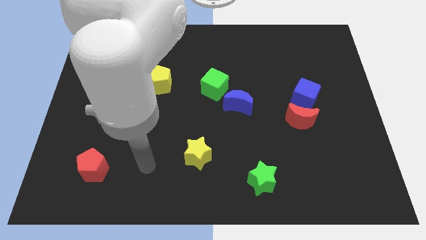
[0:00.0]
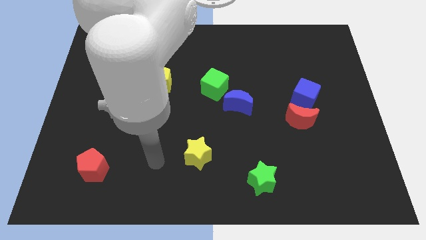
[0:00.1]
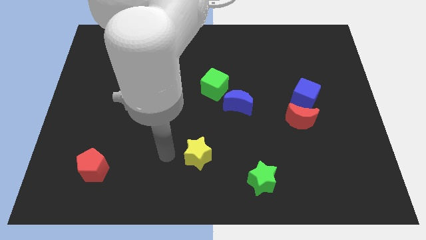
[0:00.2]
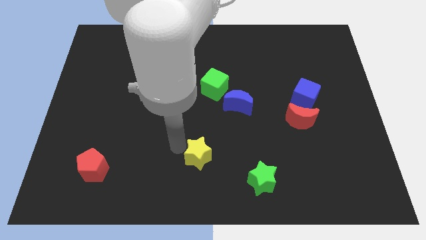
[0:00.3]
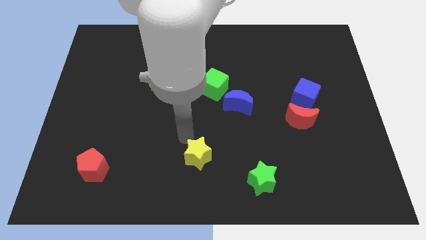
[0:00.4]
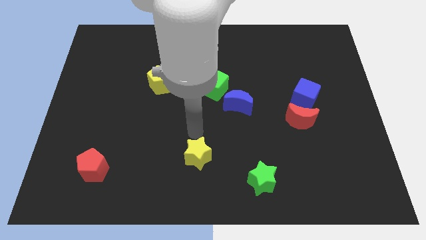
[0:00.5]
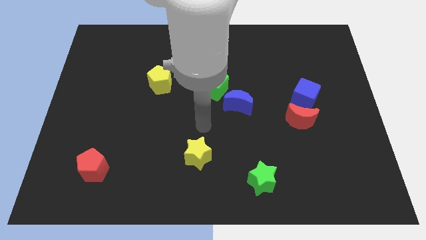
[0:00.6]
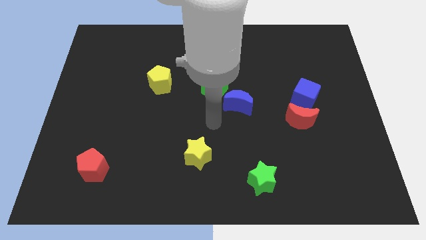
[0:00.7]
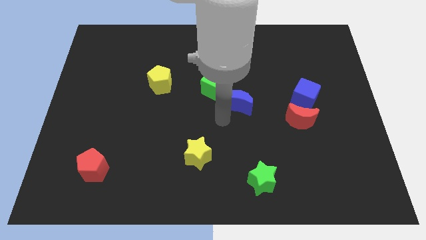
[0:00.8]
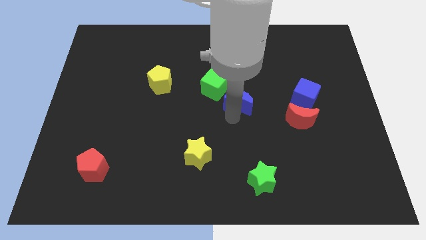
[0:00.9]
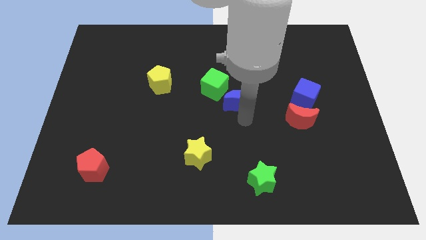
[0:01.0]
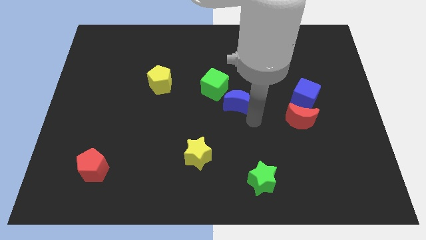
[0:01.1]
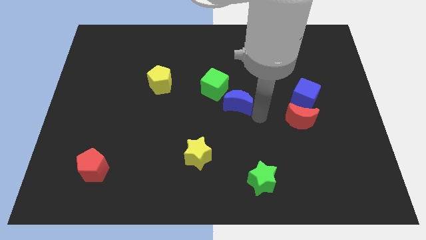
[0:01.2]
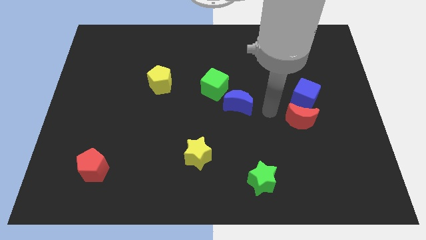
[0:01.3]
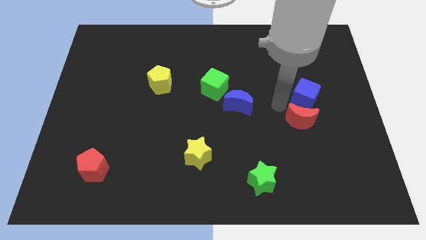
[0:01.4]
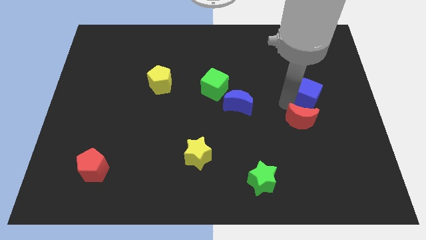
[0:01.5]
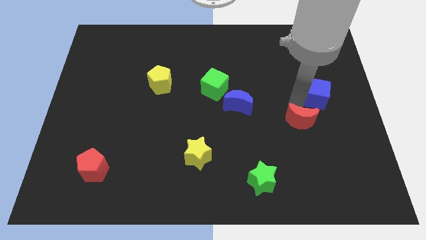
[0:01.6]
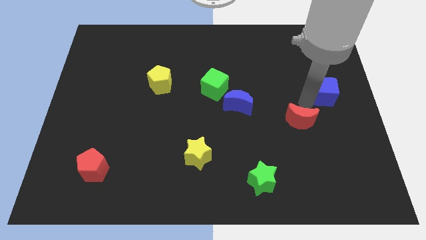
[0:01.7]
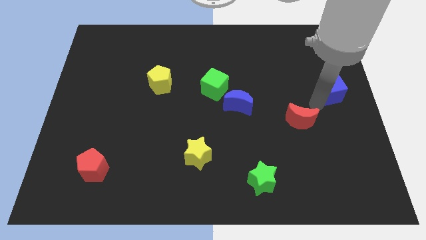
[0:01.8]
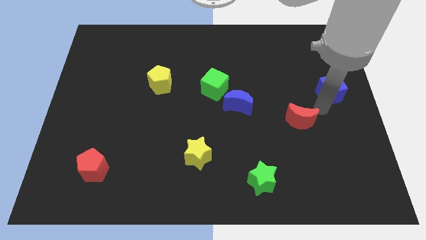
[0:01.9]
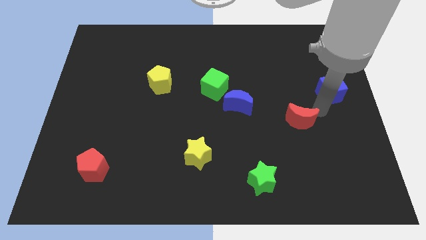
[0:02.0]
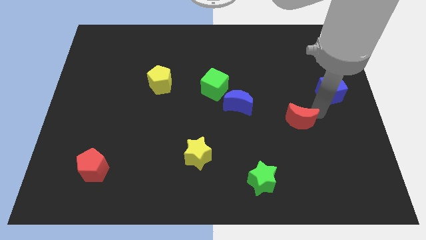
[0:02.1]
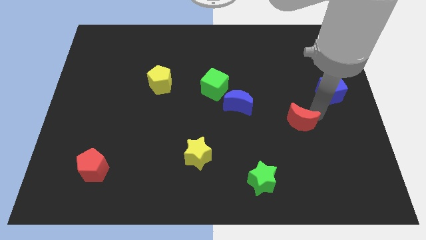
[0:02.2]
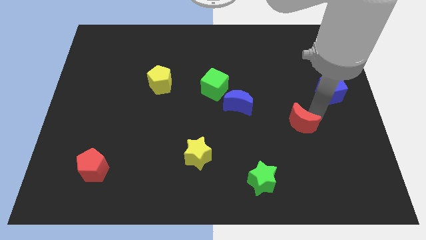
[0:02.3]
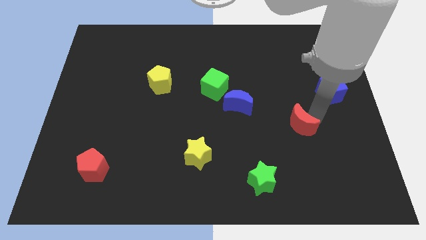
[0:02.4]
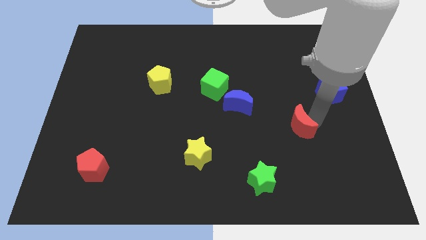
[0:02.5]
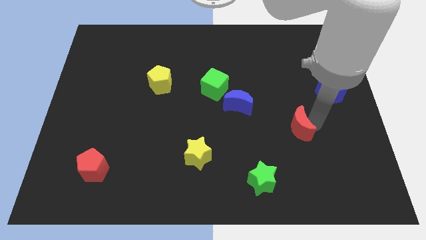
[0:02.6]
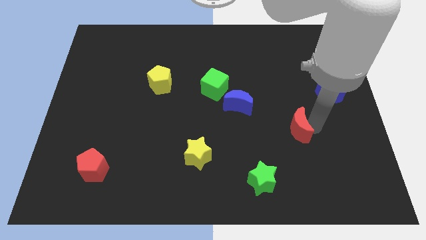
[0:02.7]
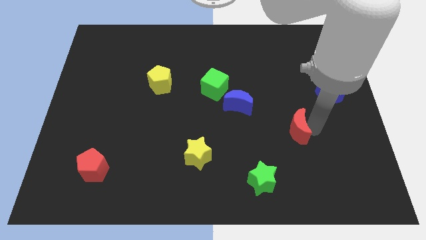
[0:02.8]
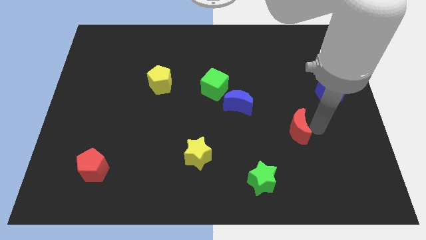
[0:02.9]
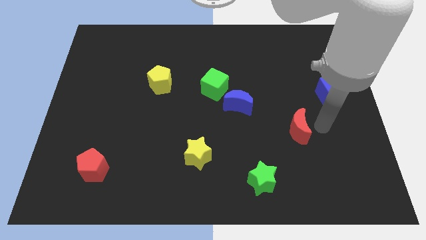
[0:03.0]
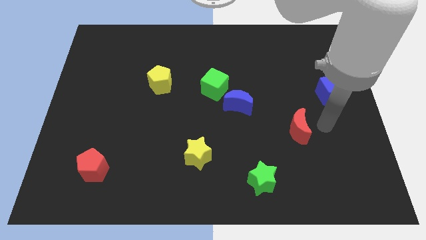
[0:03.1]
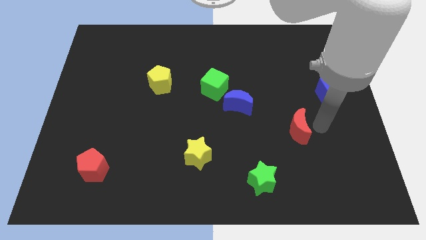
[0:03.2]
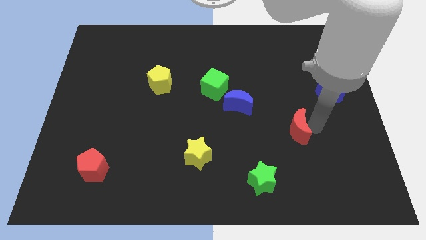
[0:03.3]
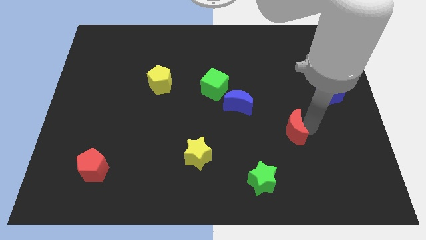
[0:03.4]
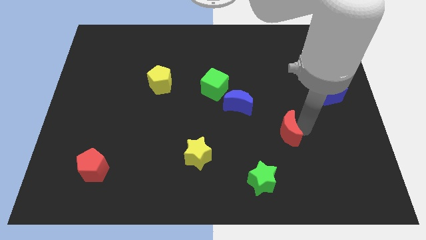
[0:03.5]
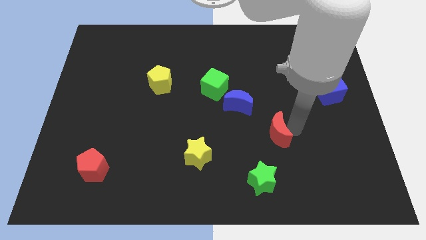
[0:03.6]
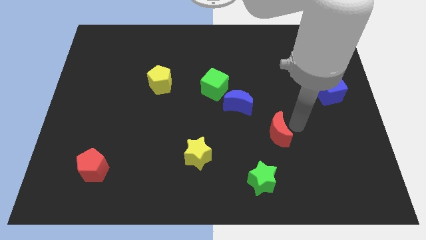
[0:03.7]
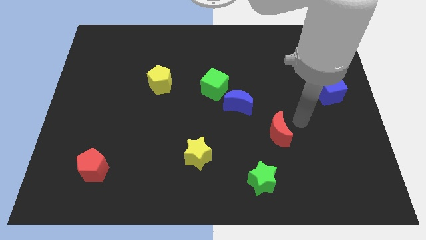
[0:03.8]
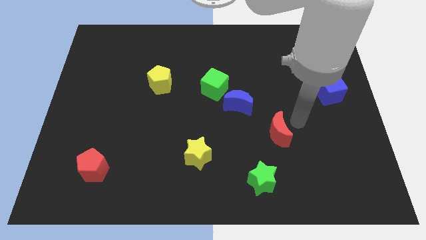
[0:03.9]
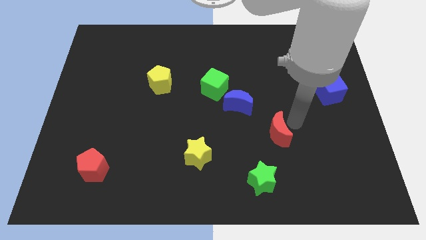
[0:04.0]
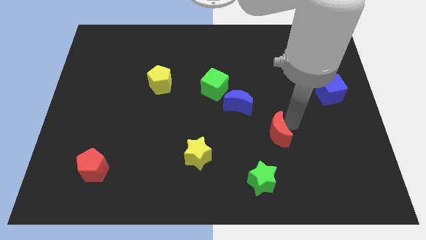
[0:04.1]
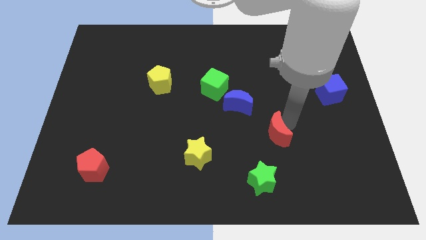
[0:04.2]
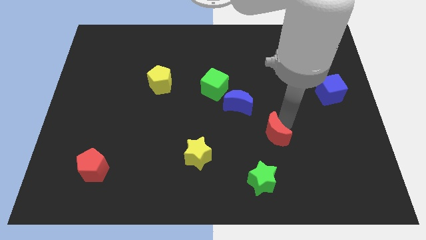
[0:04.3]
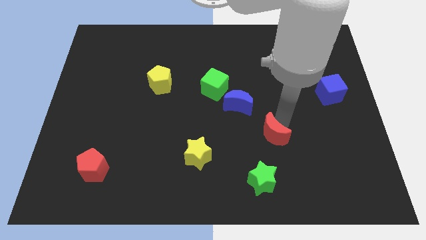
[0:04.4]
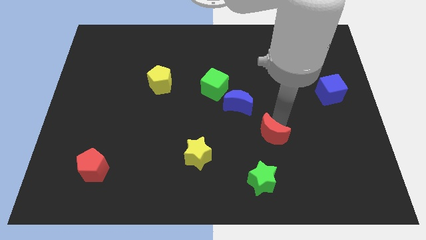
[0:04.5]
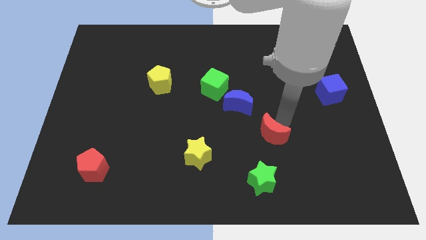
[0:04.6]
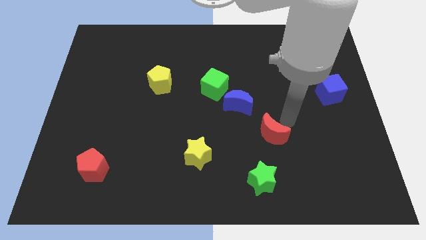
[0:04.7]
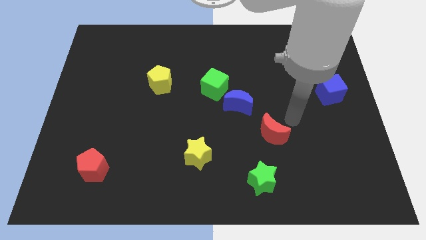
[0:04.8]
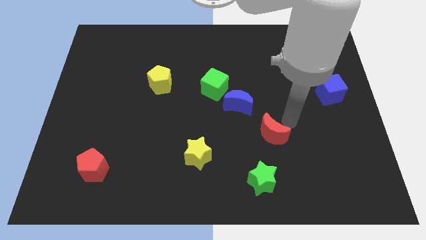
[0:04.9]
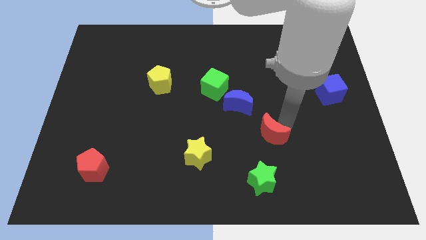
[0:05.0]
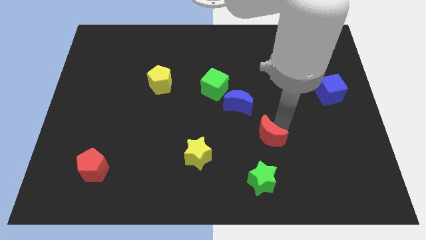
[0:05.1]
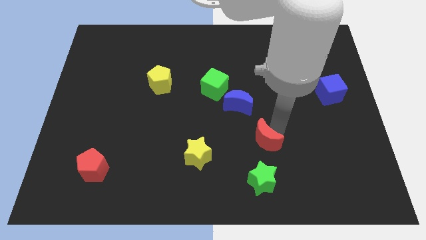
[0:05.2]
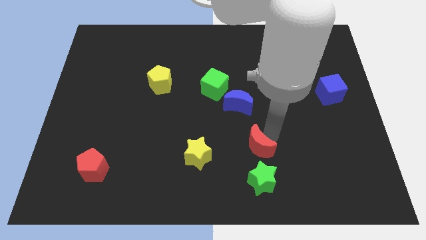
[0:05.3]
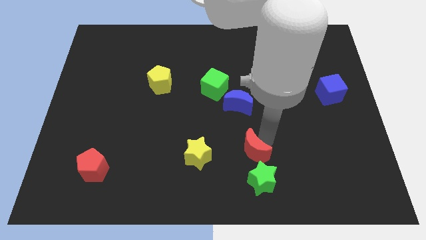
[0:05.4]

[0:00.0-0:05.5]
put the red moon diagonally up and to the left of the green star

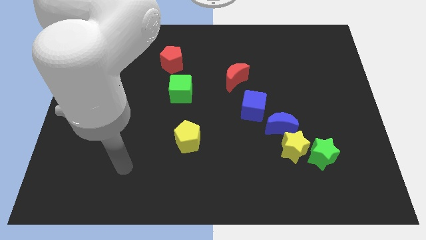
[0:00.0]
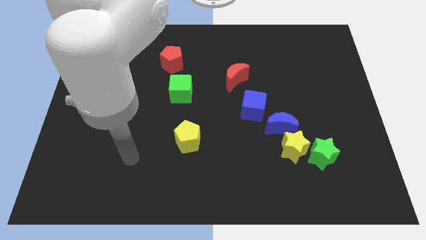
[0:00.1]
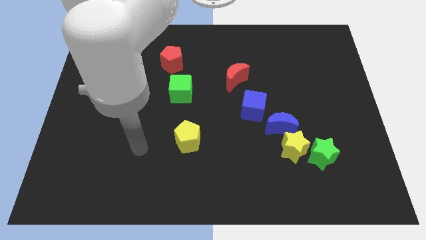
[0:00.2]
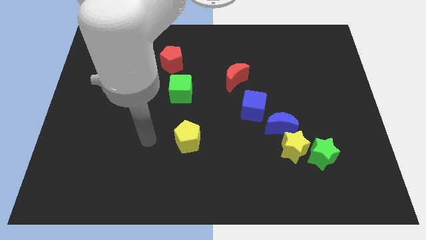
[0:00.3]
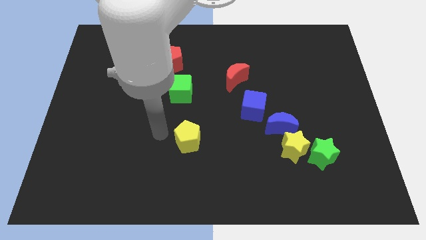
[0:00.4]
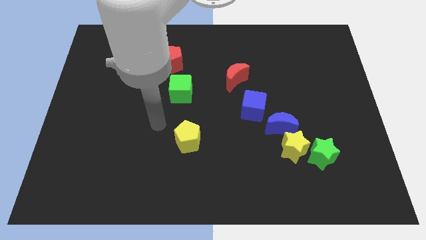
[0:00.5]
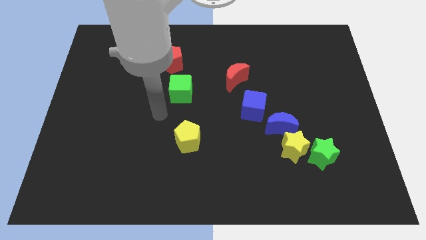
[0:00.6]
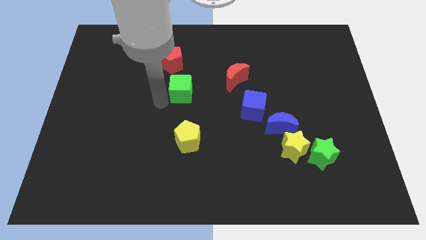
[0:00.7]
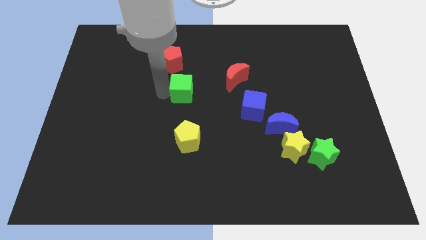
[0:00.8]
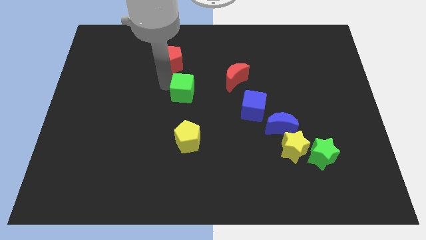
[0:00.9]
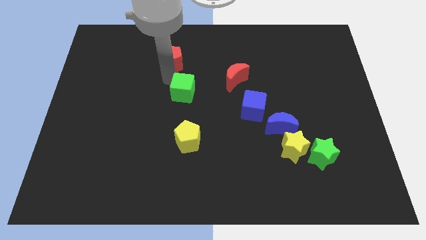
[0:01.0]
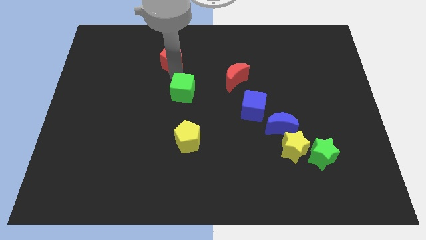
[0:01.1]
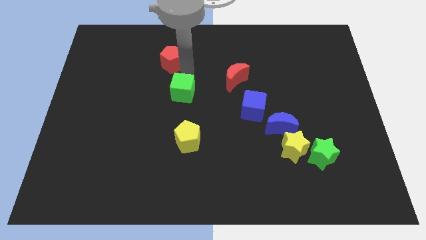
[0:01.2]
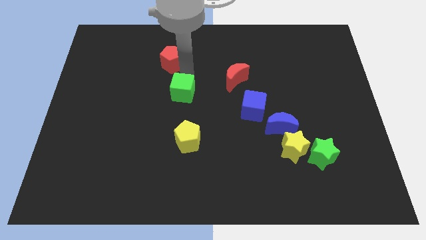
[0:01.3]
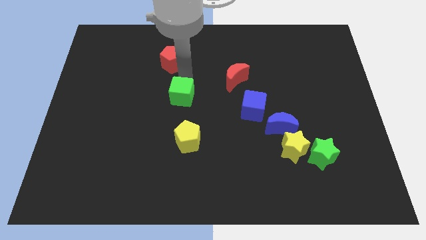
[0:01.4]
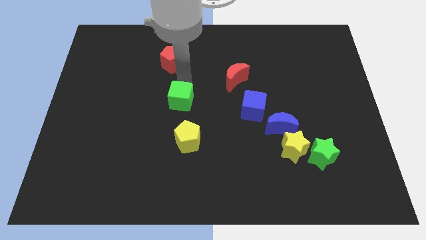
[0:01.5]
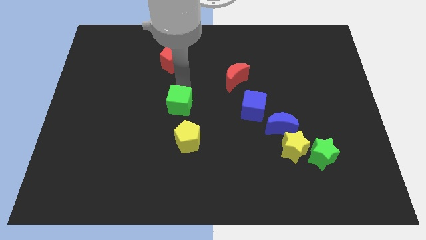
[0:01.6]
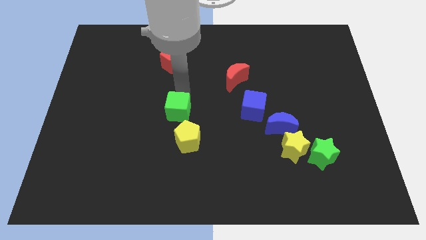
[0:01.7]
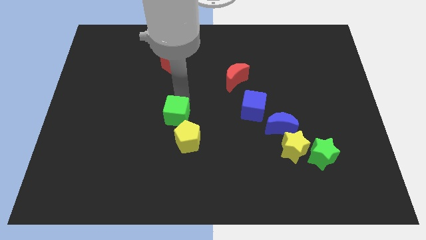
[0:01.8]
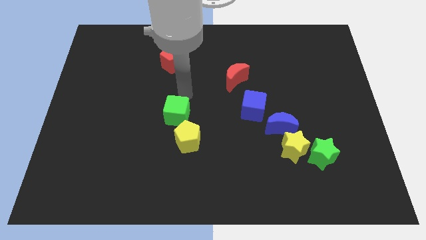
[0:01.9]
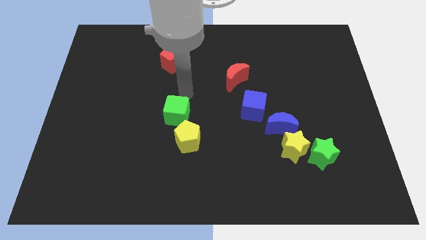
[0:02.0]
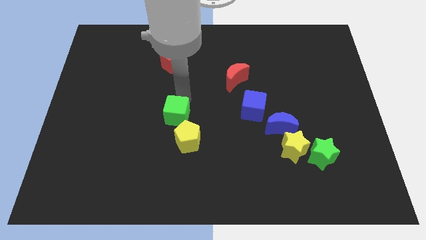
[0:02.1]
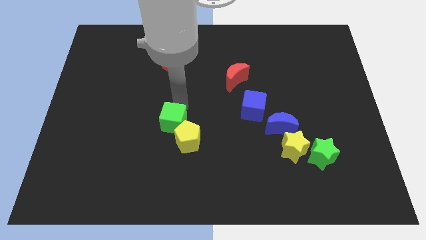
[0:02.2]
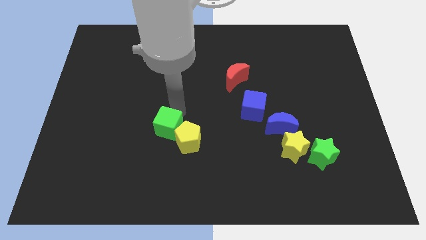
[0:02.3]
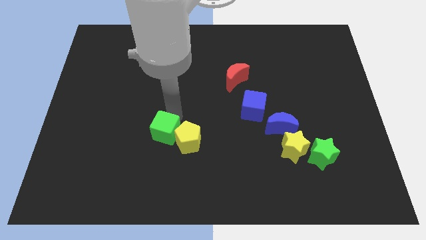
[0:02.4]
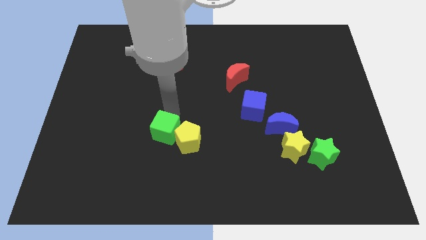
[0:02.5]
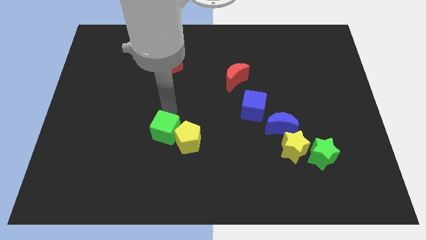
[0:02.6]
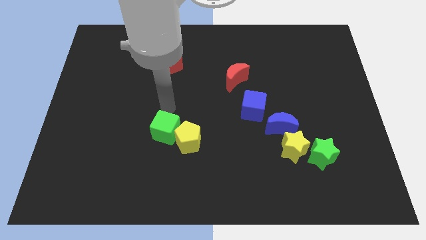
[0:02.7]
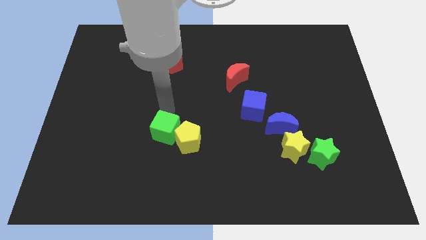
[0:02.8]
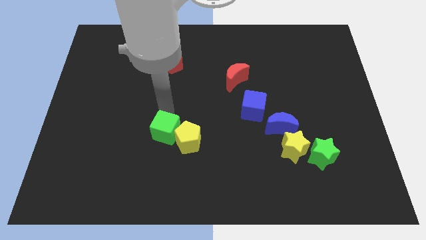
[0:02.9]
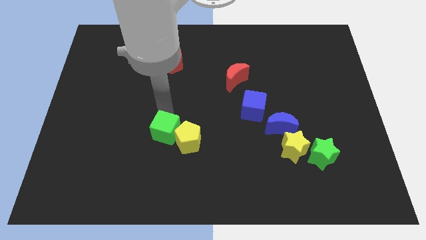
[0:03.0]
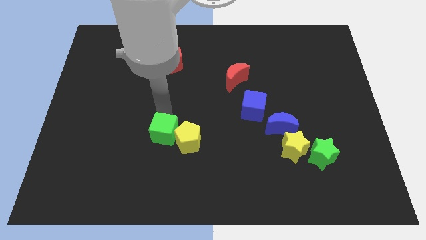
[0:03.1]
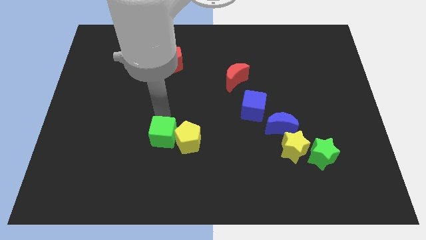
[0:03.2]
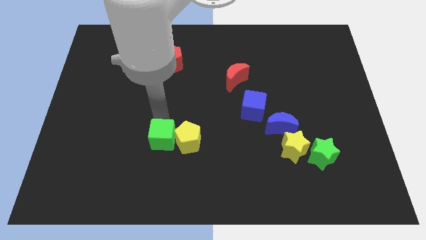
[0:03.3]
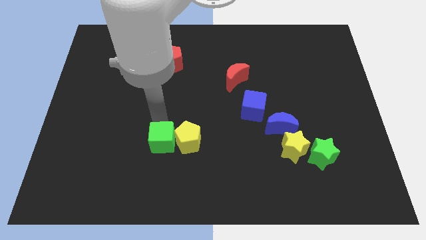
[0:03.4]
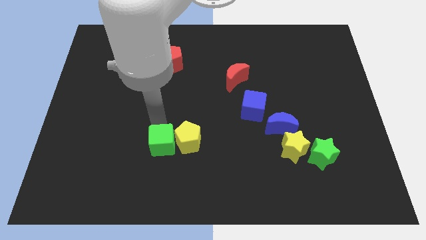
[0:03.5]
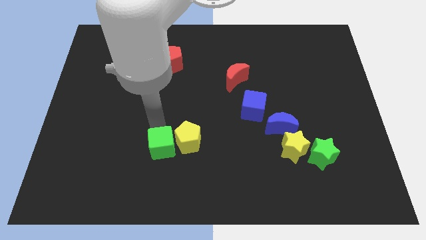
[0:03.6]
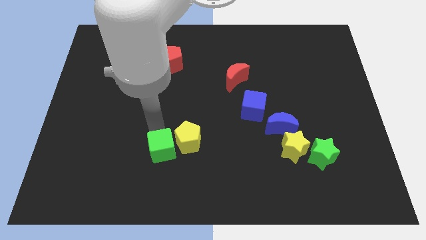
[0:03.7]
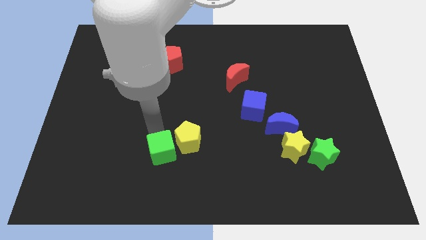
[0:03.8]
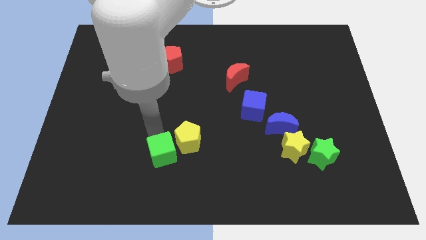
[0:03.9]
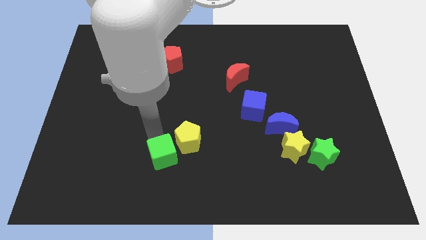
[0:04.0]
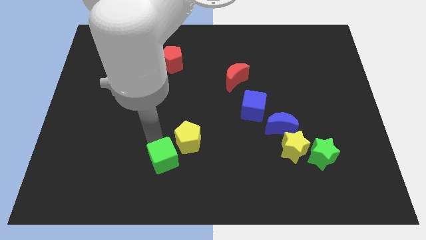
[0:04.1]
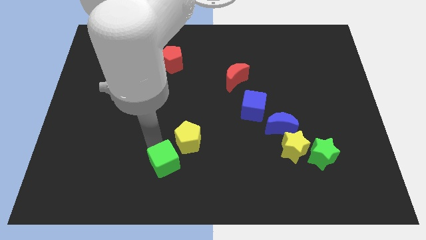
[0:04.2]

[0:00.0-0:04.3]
slide the green cube to the bottom of the yellow pentagon
